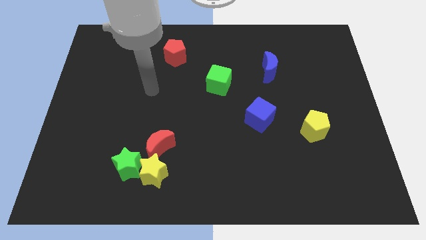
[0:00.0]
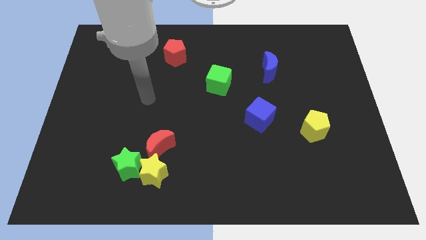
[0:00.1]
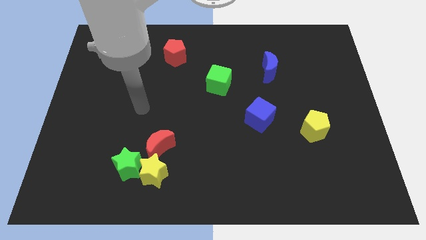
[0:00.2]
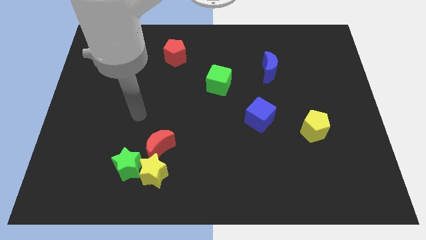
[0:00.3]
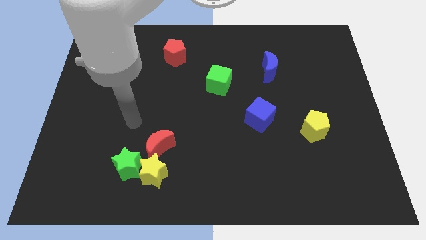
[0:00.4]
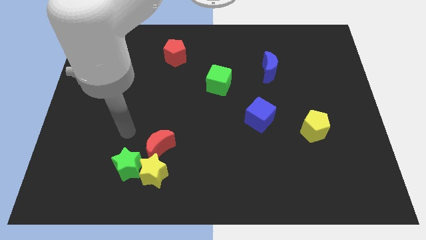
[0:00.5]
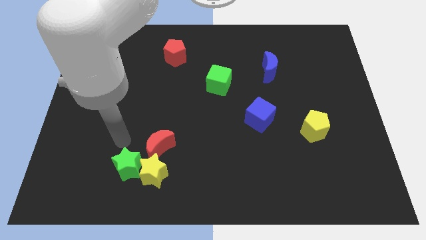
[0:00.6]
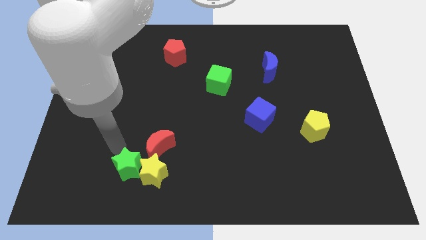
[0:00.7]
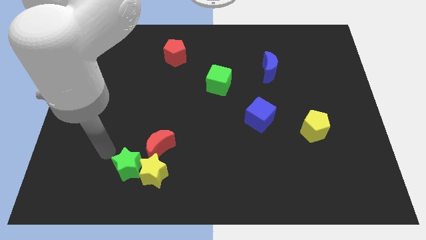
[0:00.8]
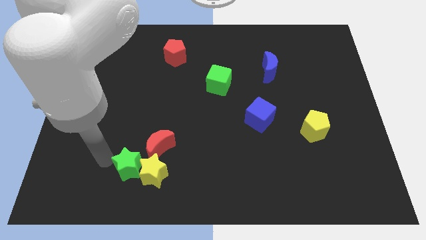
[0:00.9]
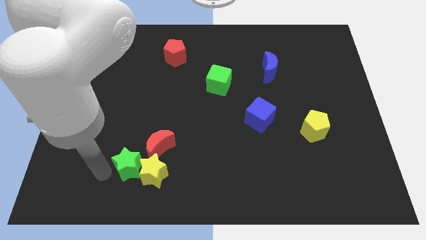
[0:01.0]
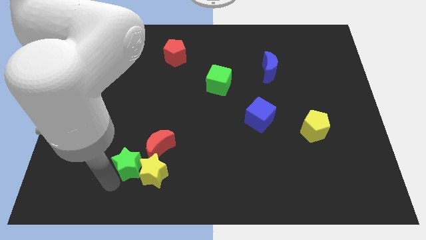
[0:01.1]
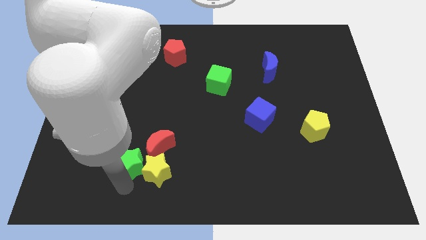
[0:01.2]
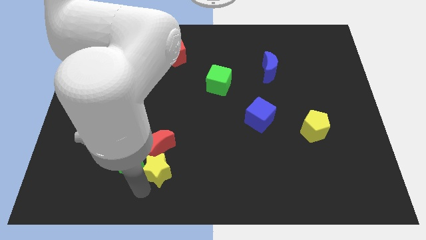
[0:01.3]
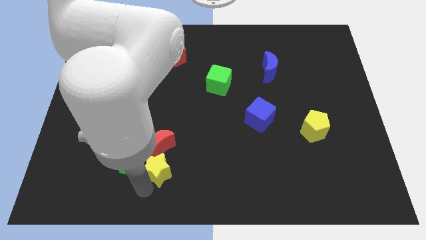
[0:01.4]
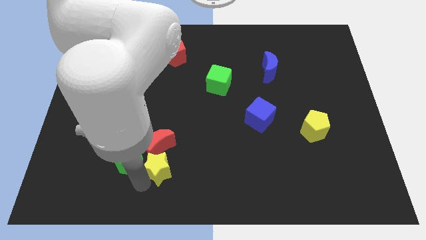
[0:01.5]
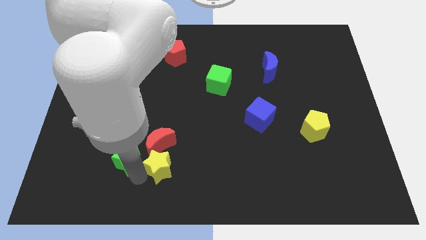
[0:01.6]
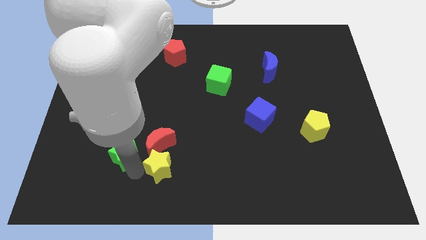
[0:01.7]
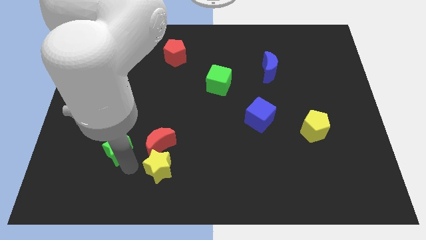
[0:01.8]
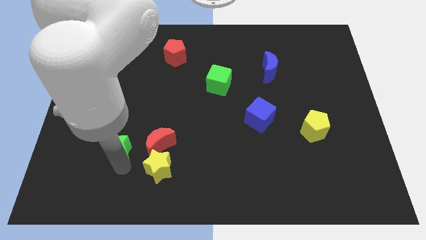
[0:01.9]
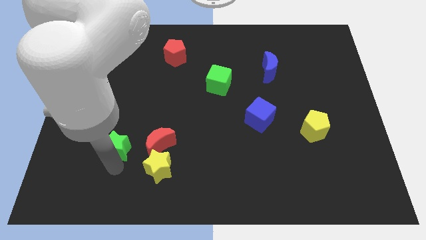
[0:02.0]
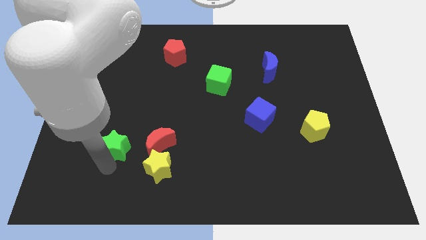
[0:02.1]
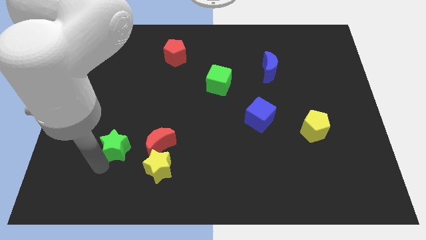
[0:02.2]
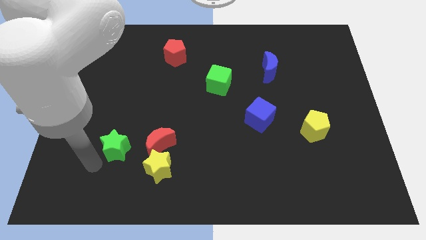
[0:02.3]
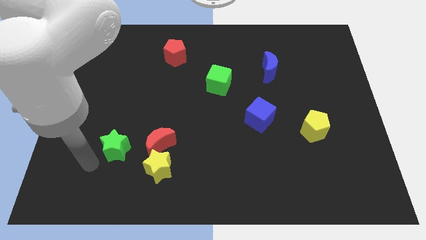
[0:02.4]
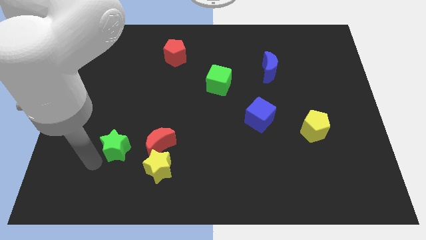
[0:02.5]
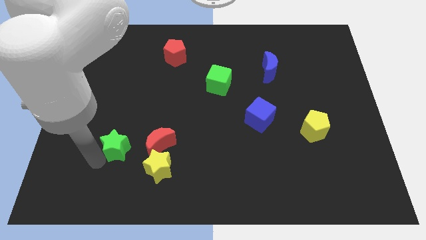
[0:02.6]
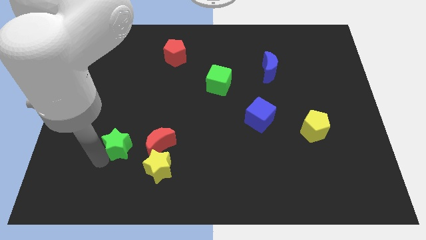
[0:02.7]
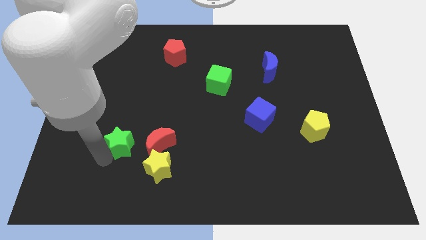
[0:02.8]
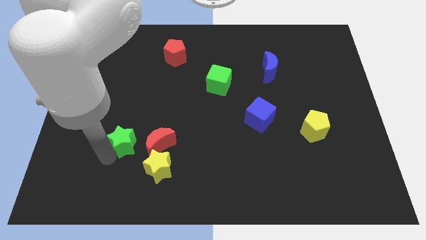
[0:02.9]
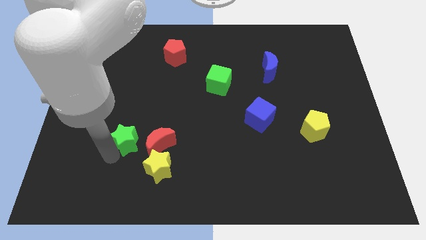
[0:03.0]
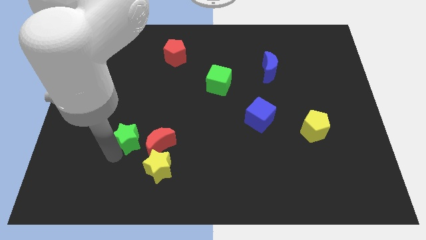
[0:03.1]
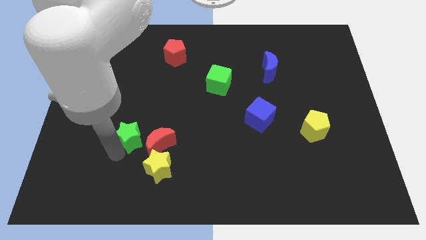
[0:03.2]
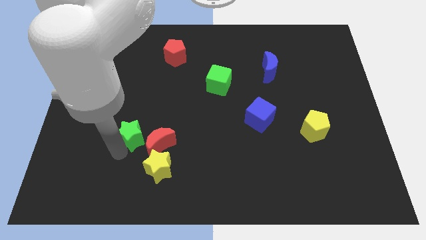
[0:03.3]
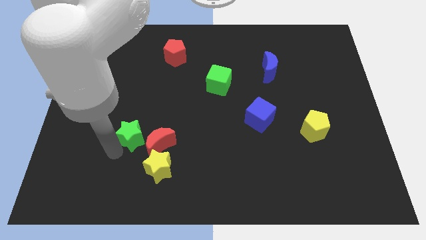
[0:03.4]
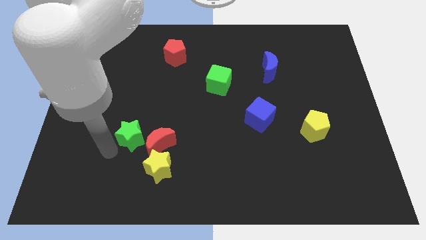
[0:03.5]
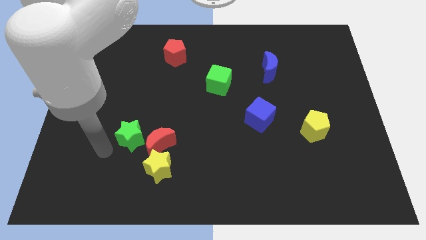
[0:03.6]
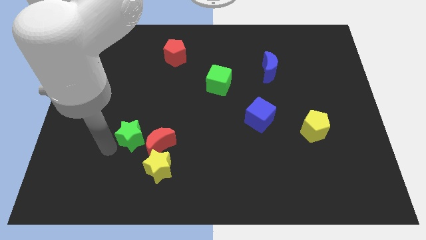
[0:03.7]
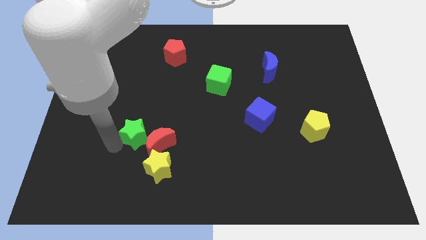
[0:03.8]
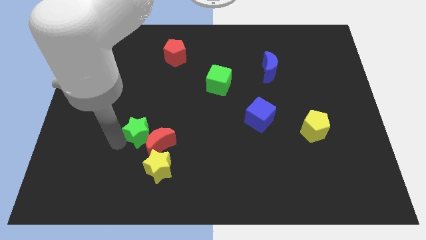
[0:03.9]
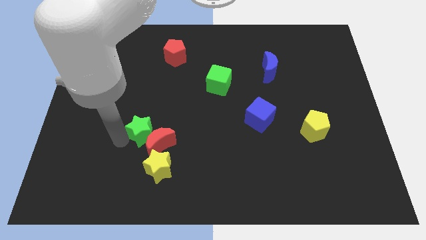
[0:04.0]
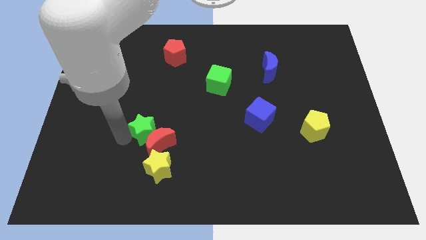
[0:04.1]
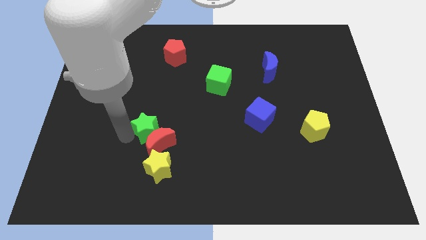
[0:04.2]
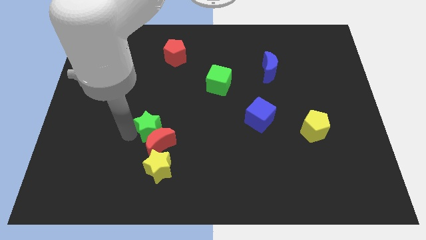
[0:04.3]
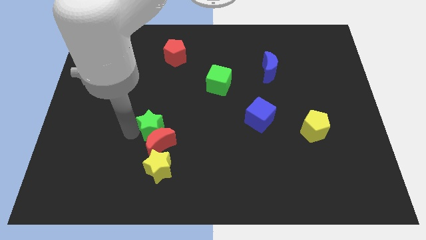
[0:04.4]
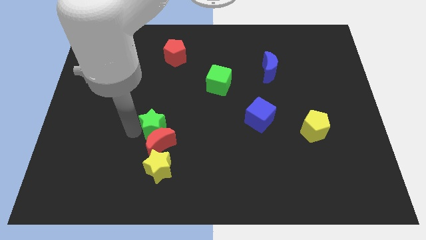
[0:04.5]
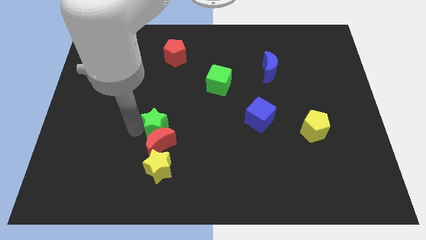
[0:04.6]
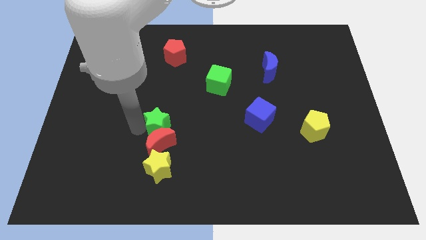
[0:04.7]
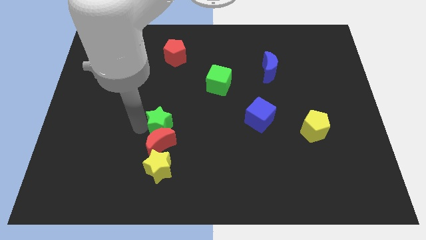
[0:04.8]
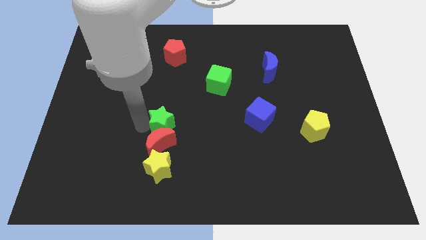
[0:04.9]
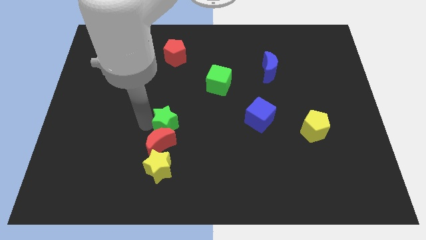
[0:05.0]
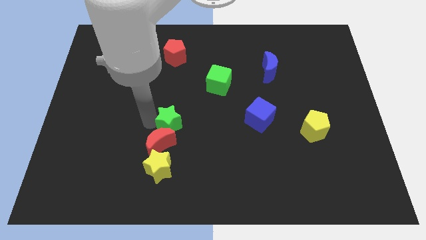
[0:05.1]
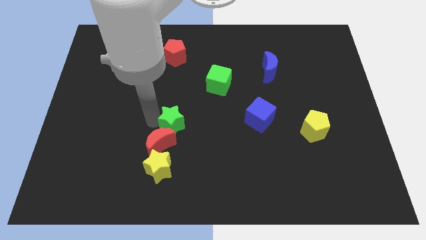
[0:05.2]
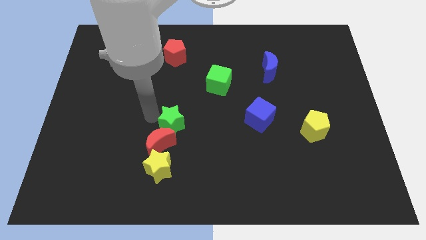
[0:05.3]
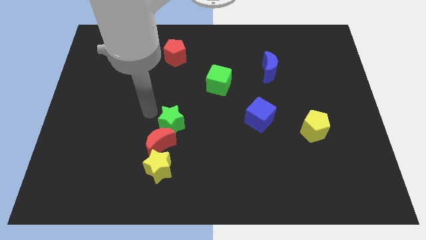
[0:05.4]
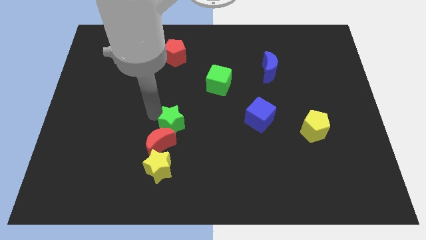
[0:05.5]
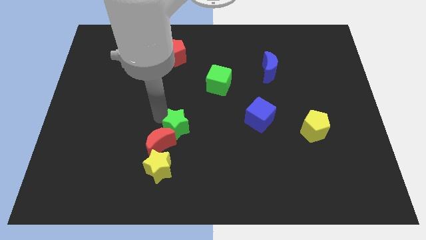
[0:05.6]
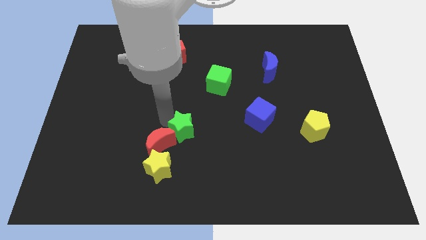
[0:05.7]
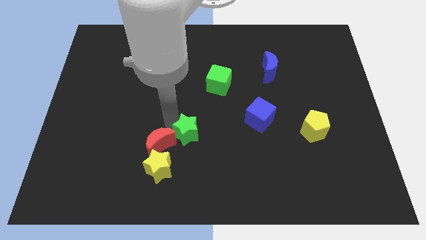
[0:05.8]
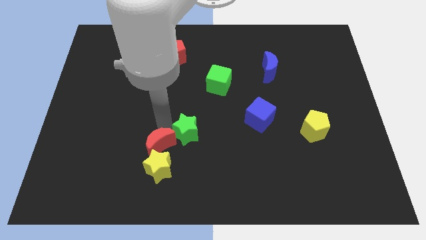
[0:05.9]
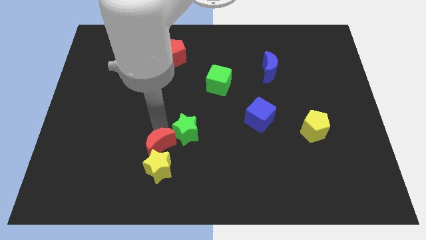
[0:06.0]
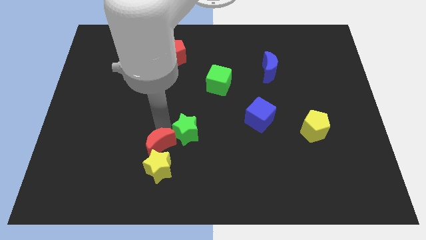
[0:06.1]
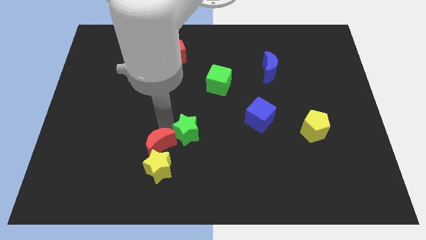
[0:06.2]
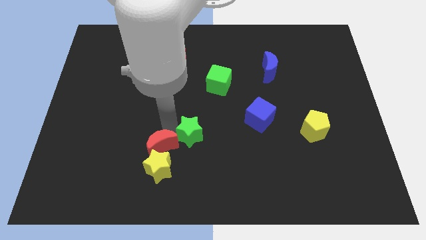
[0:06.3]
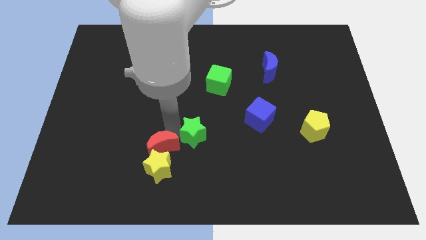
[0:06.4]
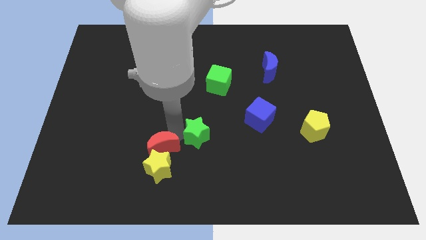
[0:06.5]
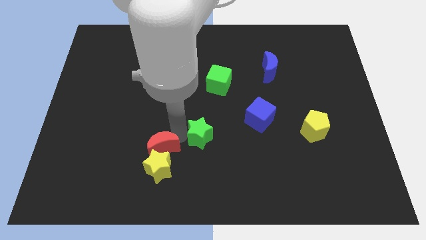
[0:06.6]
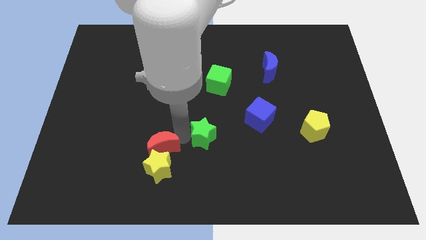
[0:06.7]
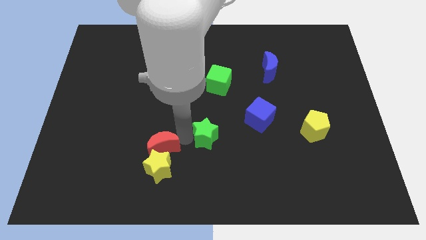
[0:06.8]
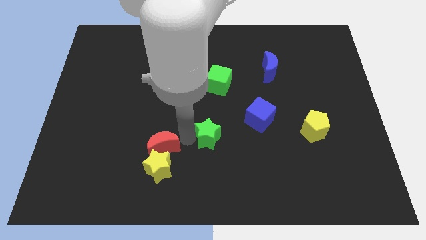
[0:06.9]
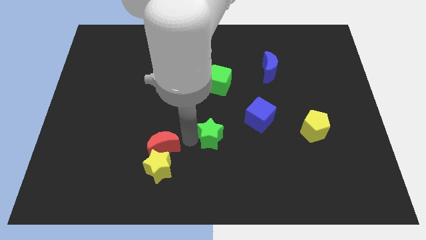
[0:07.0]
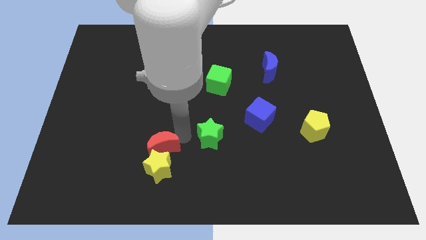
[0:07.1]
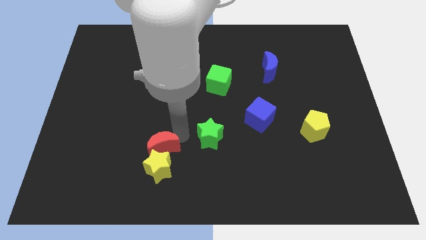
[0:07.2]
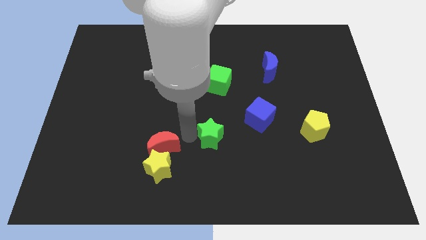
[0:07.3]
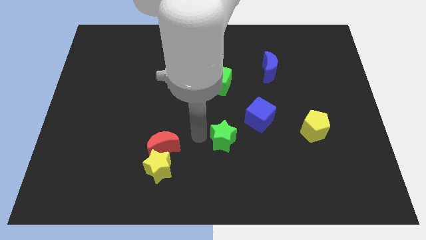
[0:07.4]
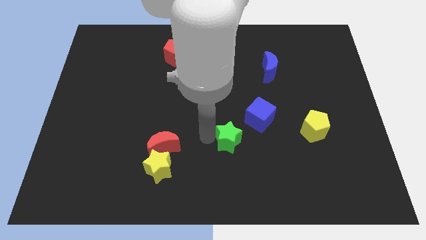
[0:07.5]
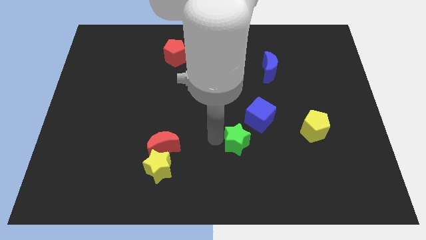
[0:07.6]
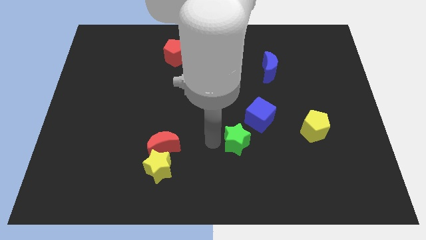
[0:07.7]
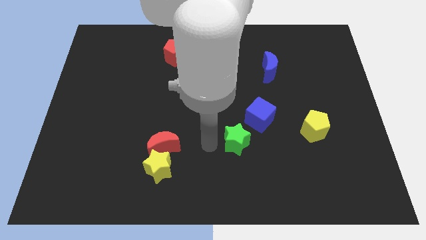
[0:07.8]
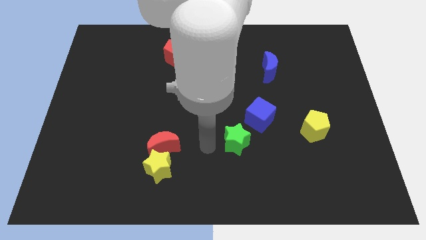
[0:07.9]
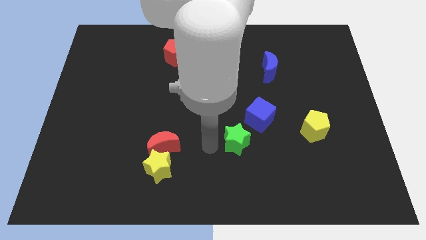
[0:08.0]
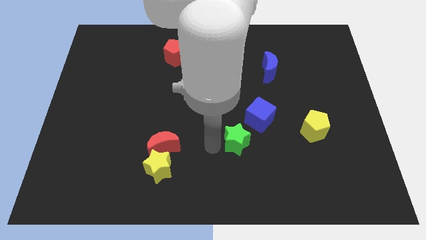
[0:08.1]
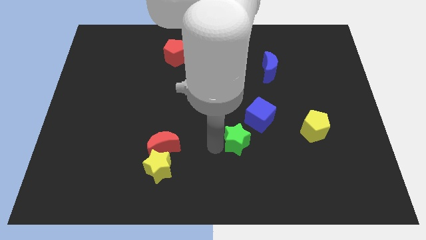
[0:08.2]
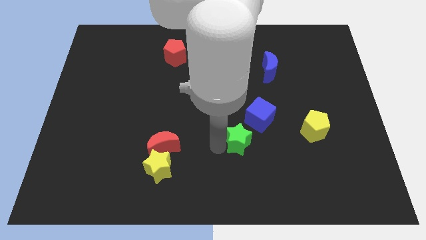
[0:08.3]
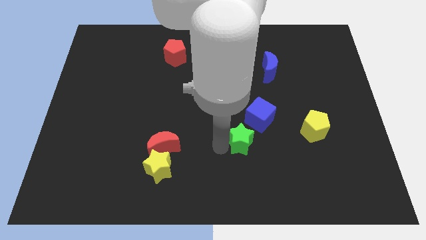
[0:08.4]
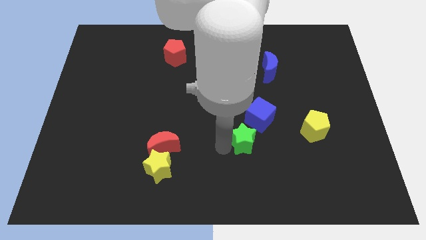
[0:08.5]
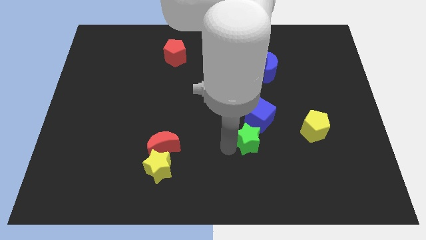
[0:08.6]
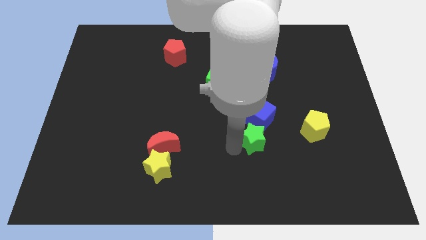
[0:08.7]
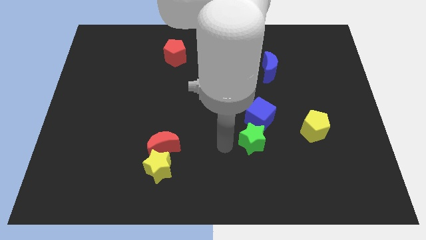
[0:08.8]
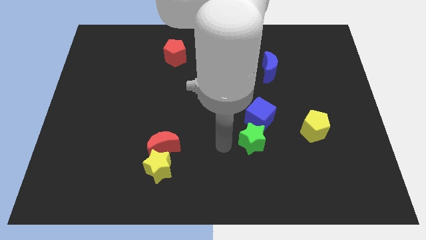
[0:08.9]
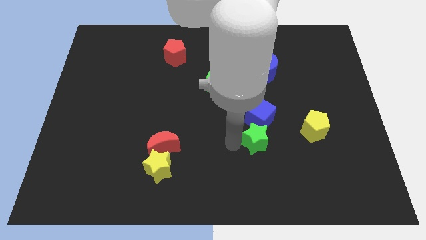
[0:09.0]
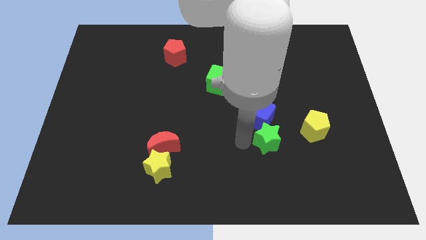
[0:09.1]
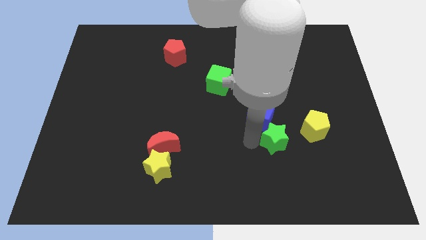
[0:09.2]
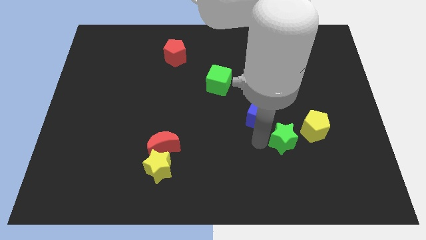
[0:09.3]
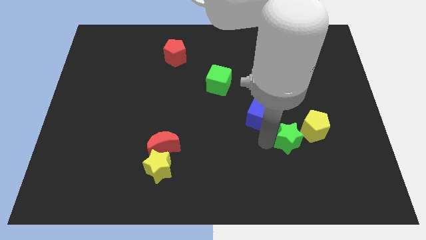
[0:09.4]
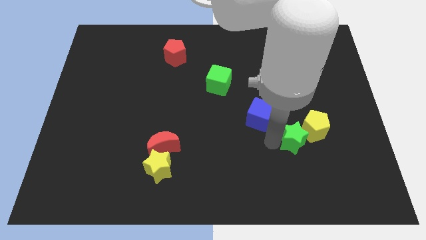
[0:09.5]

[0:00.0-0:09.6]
put the green star to the yellow pentagon
